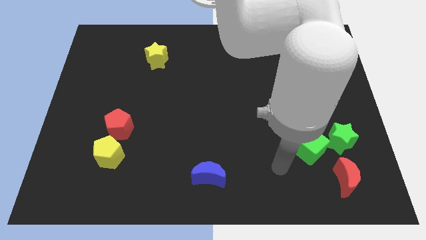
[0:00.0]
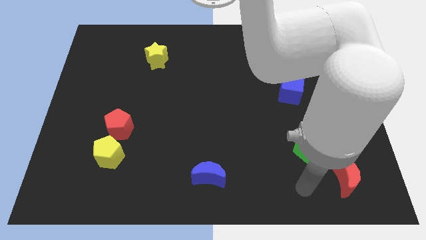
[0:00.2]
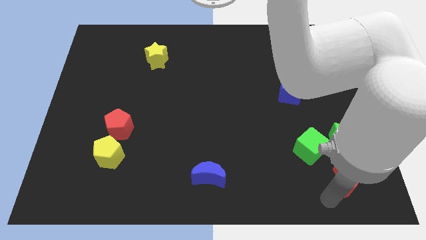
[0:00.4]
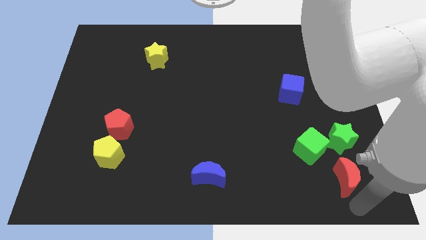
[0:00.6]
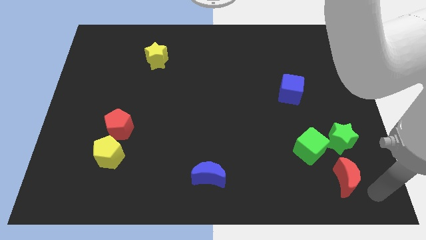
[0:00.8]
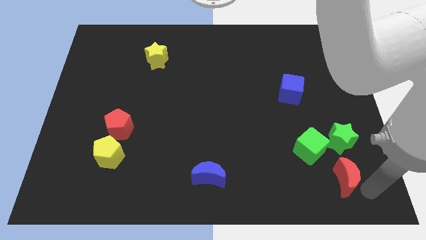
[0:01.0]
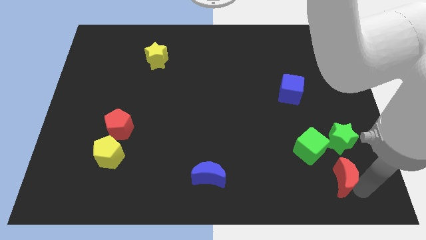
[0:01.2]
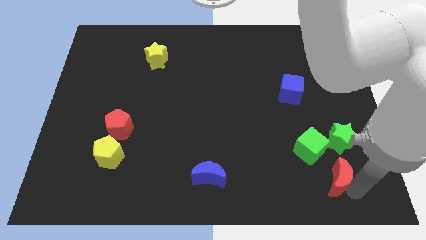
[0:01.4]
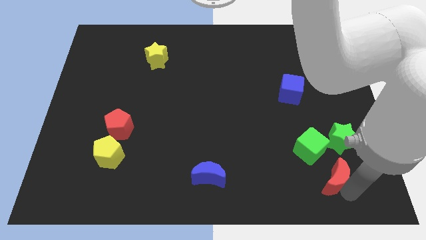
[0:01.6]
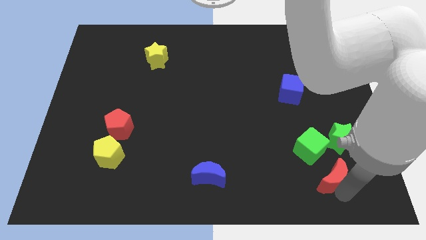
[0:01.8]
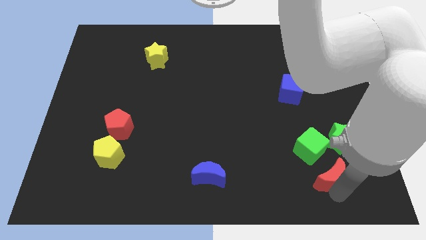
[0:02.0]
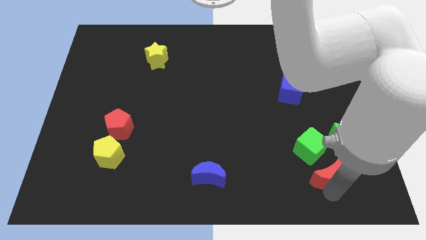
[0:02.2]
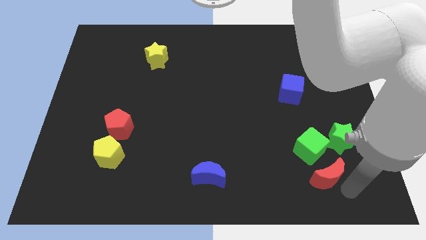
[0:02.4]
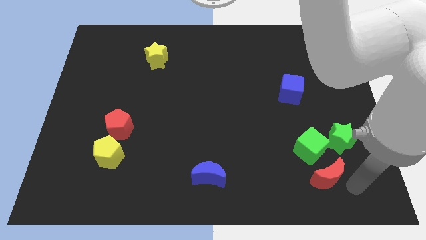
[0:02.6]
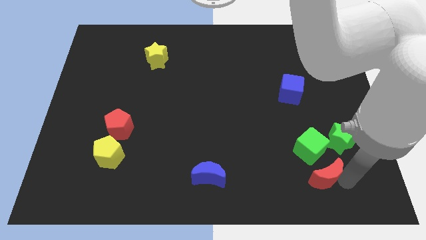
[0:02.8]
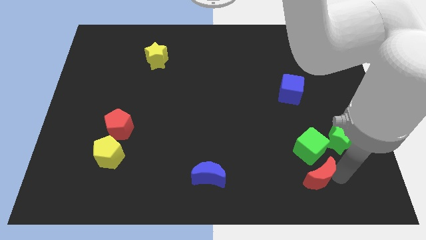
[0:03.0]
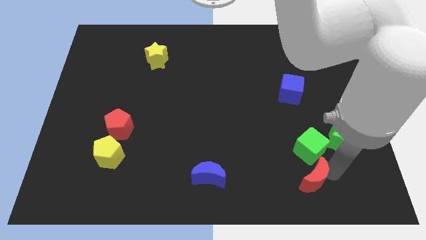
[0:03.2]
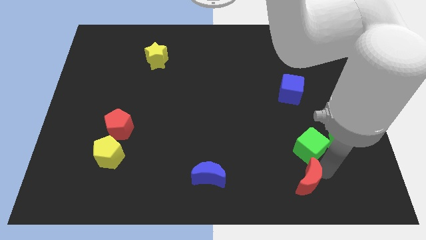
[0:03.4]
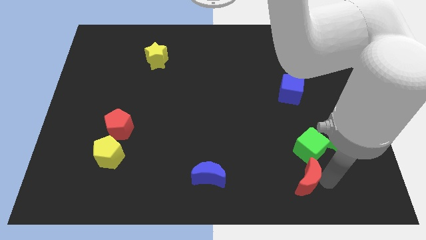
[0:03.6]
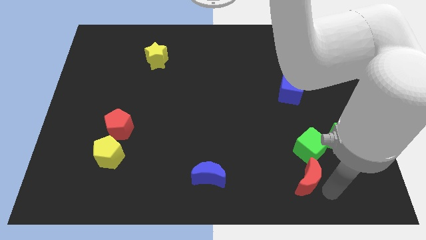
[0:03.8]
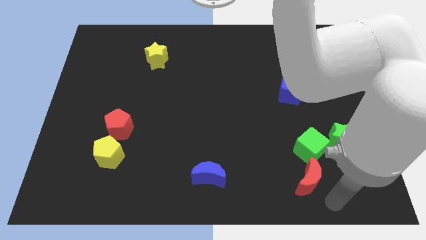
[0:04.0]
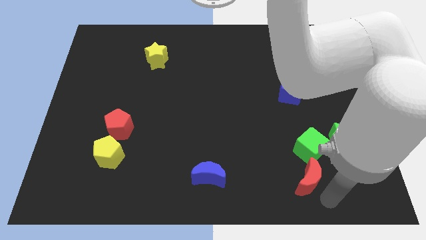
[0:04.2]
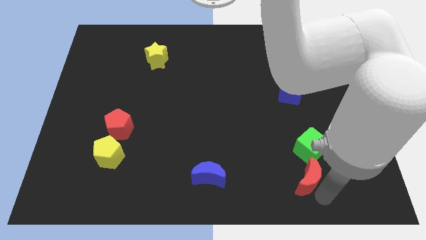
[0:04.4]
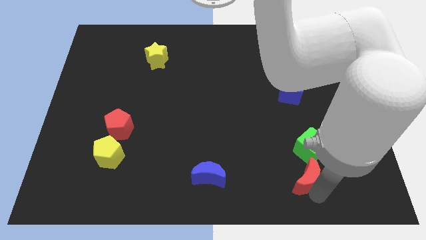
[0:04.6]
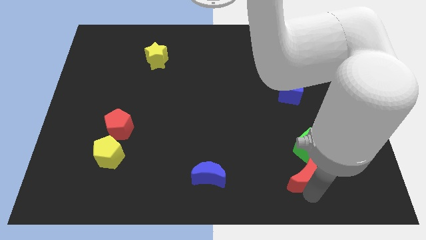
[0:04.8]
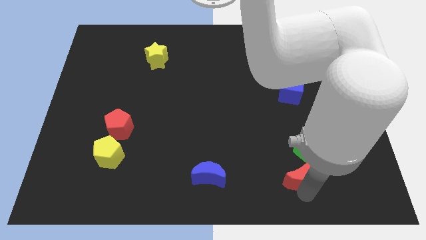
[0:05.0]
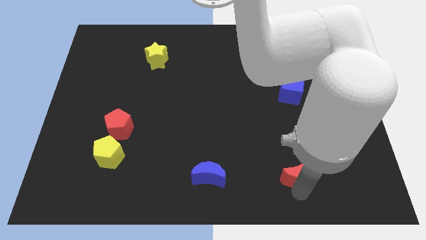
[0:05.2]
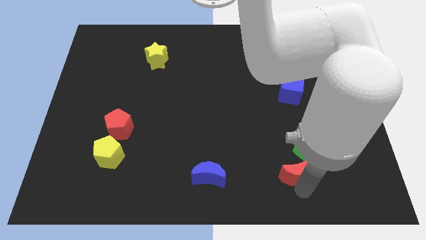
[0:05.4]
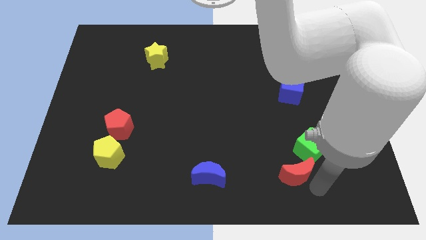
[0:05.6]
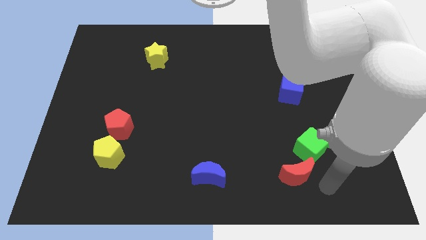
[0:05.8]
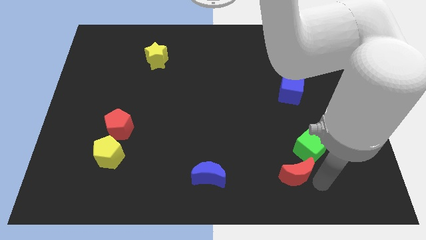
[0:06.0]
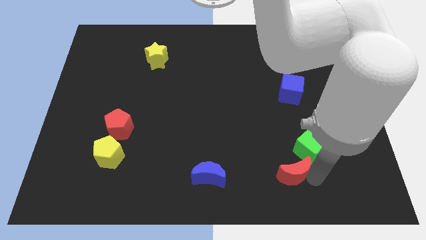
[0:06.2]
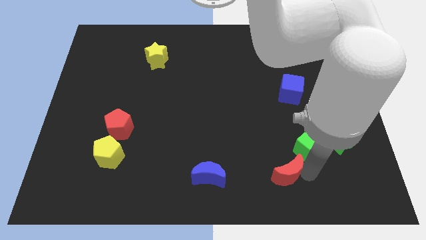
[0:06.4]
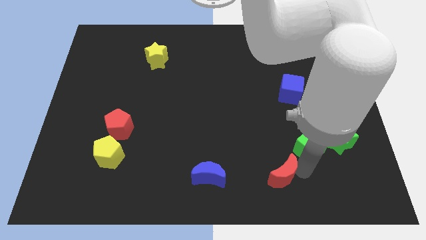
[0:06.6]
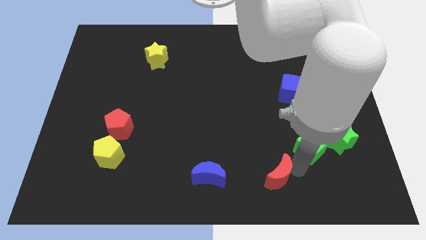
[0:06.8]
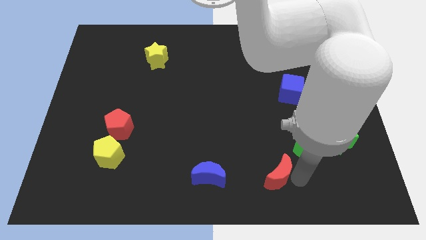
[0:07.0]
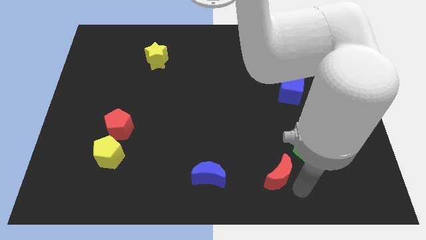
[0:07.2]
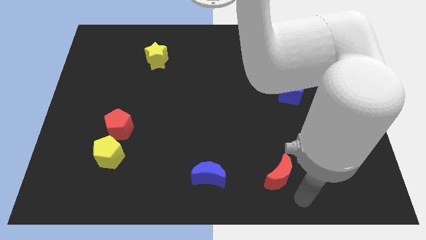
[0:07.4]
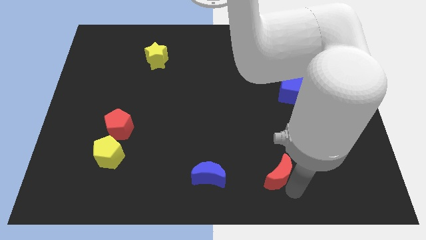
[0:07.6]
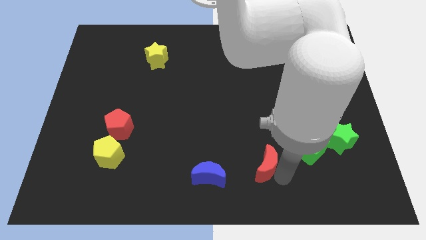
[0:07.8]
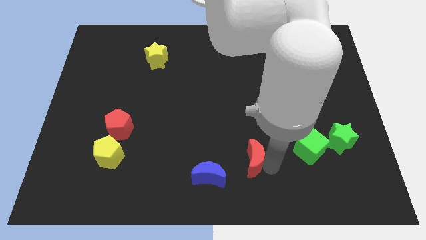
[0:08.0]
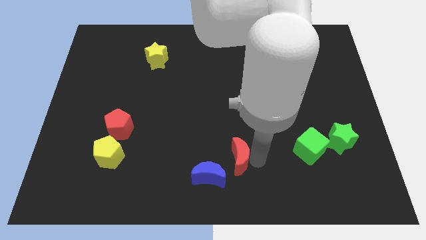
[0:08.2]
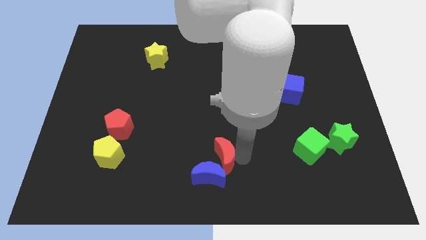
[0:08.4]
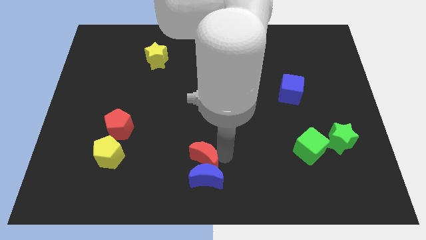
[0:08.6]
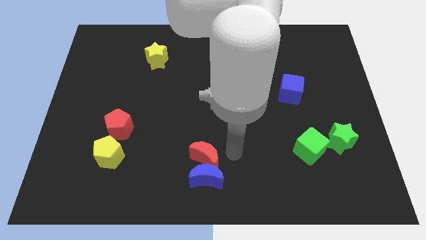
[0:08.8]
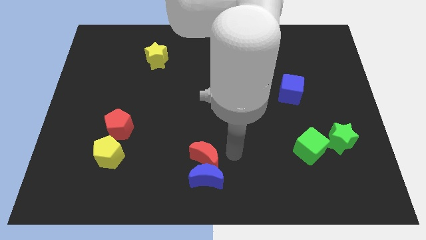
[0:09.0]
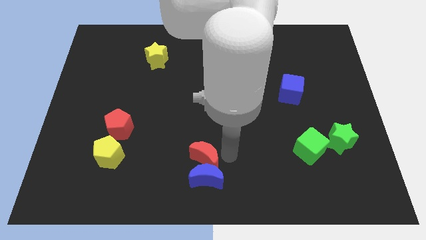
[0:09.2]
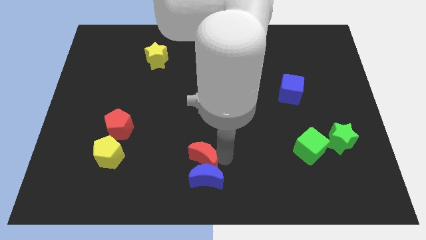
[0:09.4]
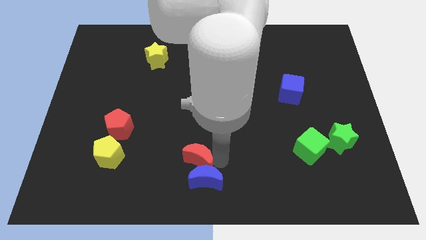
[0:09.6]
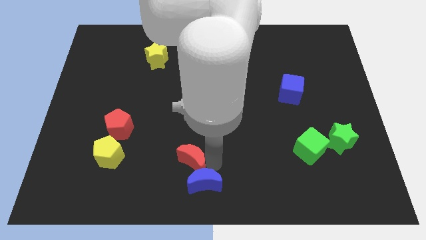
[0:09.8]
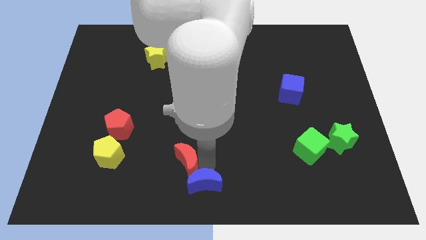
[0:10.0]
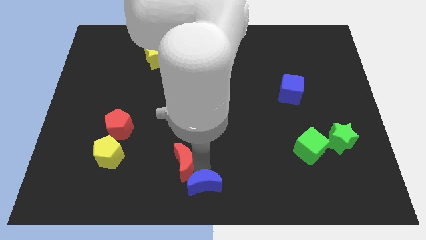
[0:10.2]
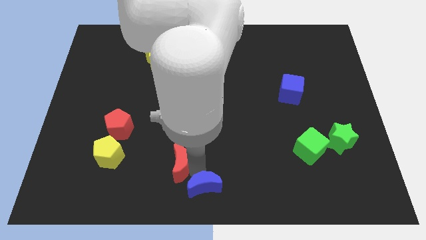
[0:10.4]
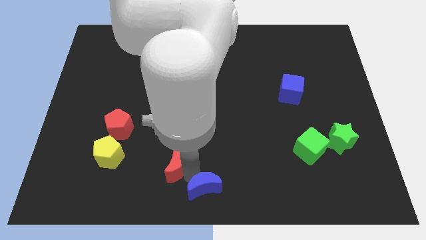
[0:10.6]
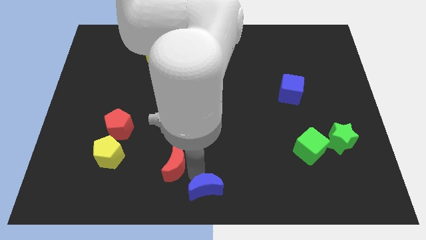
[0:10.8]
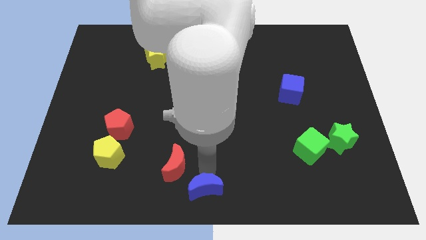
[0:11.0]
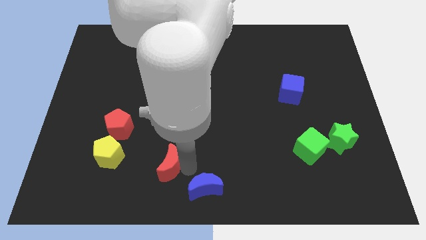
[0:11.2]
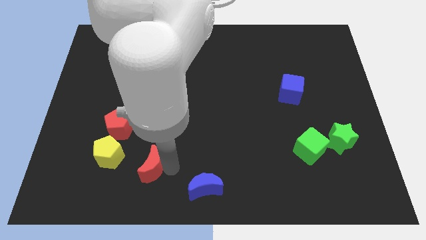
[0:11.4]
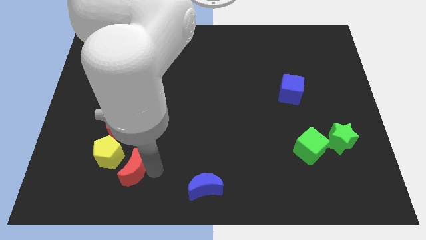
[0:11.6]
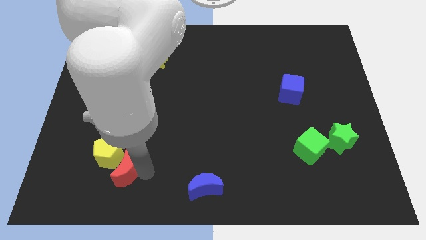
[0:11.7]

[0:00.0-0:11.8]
move the red moon to the yellow pentagon

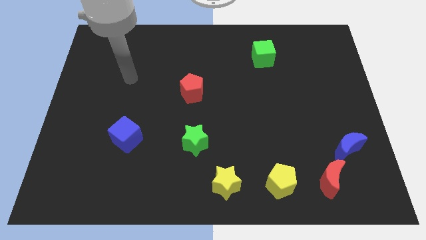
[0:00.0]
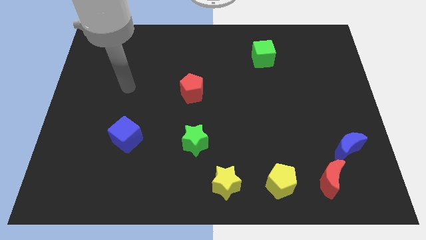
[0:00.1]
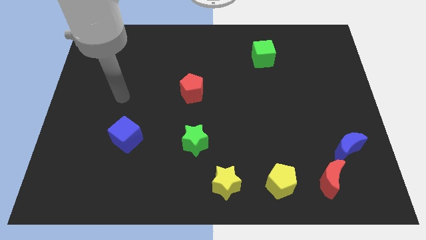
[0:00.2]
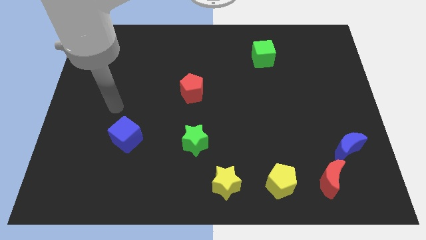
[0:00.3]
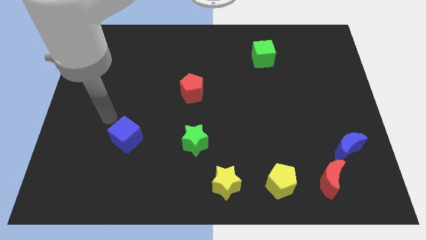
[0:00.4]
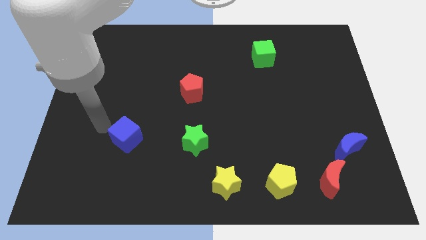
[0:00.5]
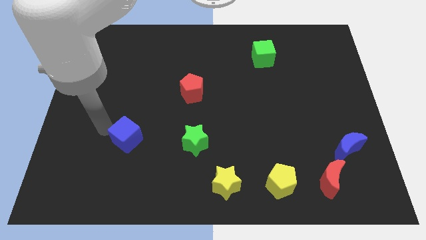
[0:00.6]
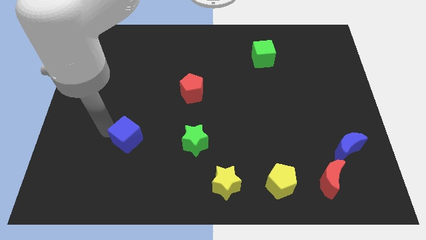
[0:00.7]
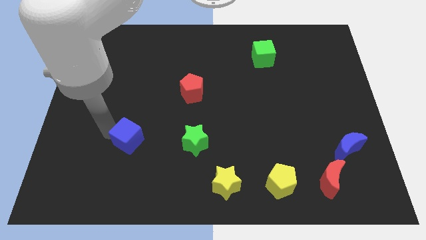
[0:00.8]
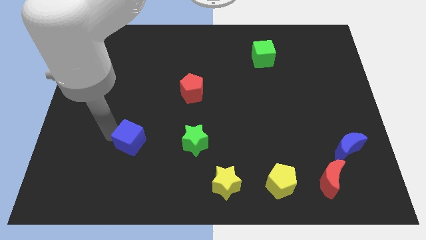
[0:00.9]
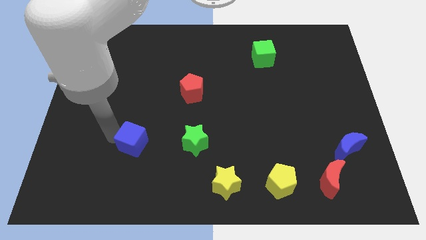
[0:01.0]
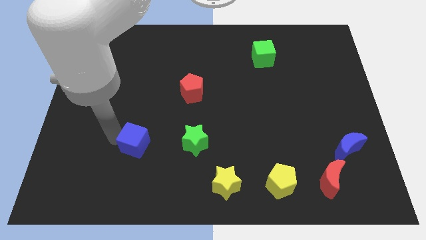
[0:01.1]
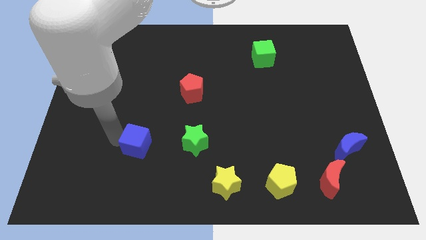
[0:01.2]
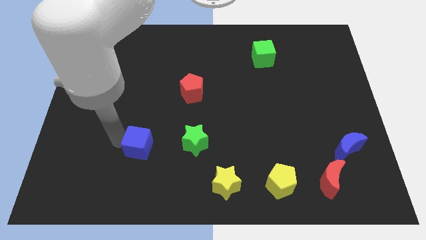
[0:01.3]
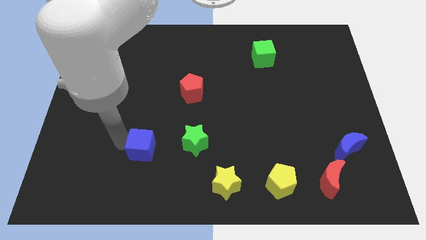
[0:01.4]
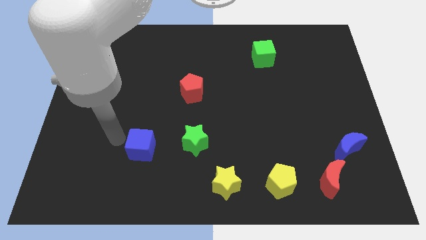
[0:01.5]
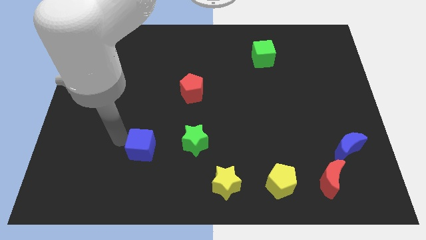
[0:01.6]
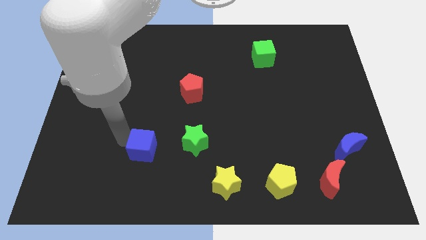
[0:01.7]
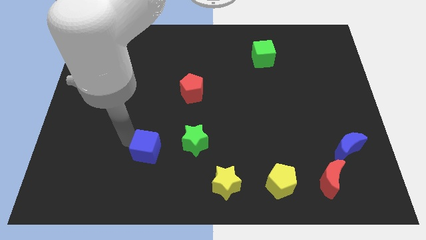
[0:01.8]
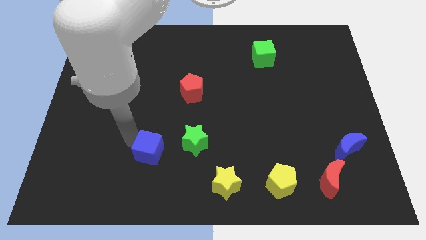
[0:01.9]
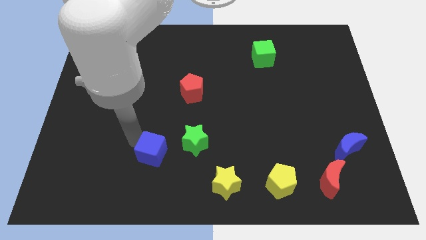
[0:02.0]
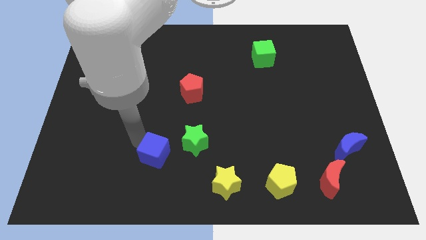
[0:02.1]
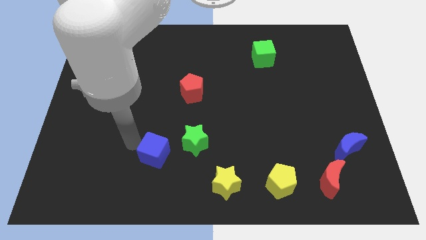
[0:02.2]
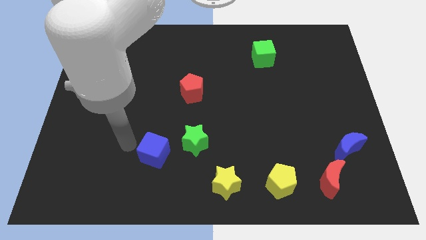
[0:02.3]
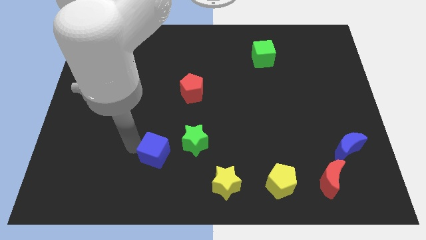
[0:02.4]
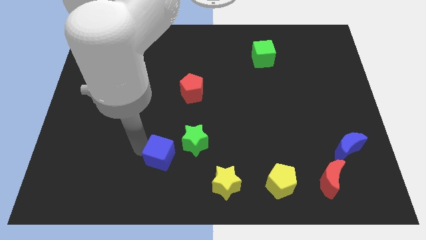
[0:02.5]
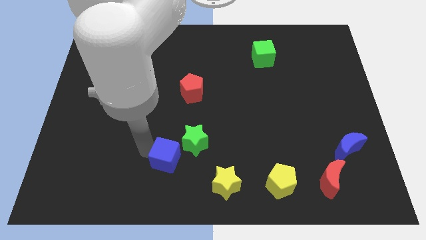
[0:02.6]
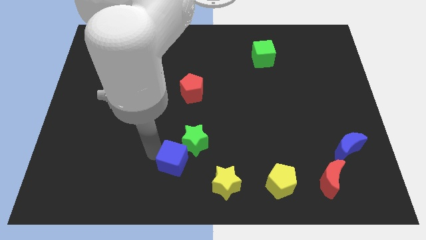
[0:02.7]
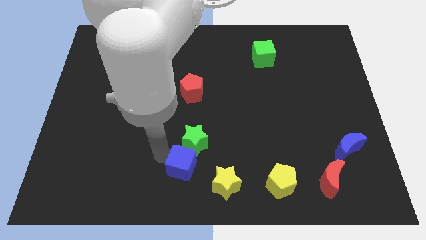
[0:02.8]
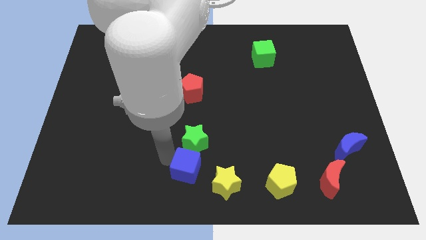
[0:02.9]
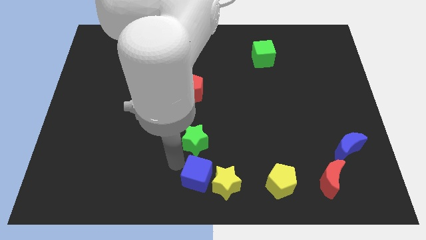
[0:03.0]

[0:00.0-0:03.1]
slide the blue cube to the yellow star
